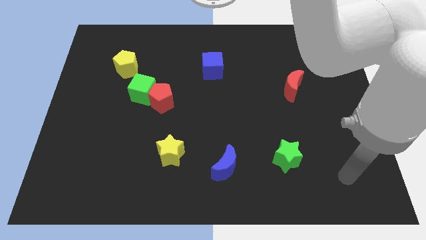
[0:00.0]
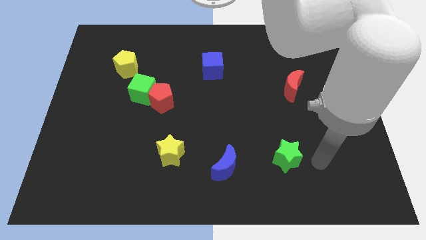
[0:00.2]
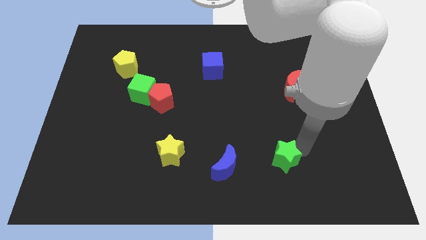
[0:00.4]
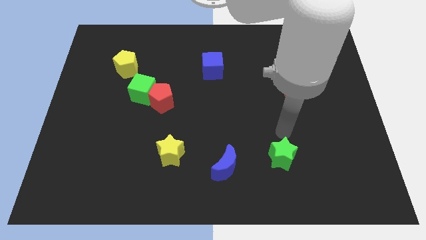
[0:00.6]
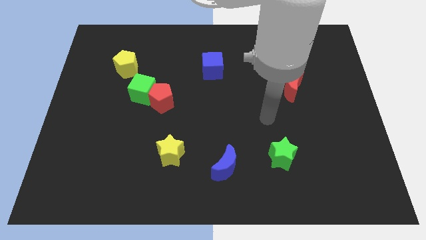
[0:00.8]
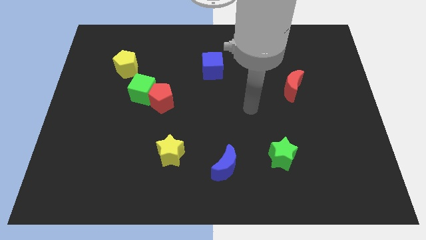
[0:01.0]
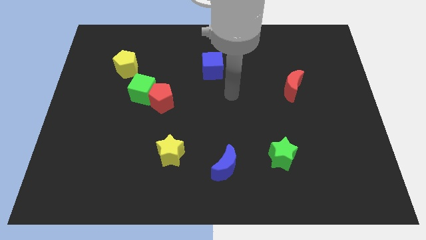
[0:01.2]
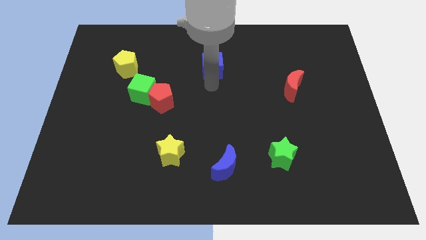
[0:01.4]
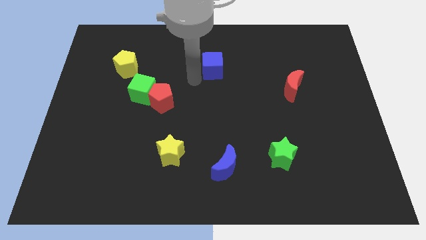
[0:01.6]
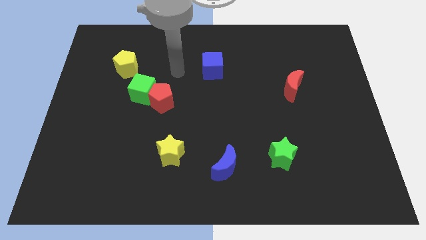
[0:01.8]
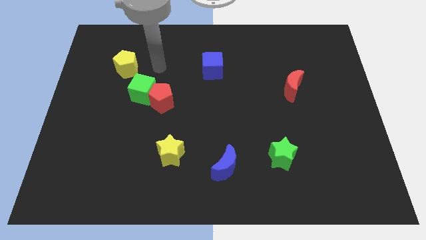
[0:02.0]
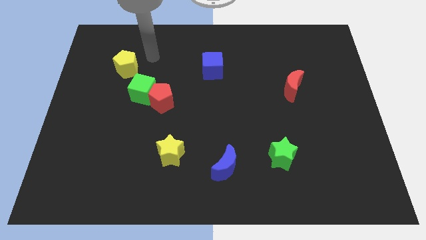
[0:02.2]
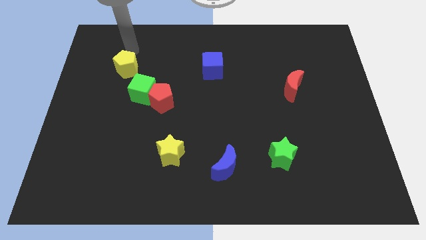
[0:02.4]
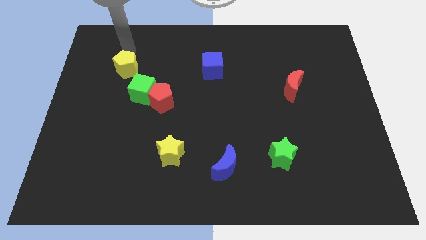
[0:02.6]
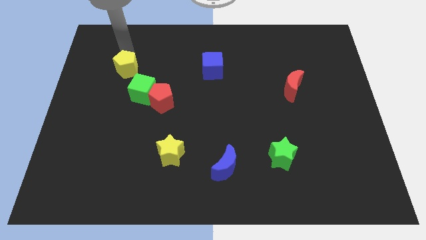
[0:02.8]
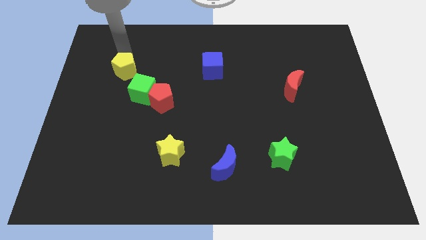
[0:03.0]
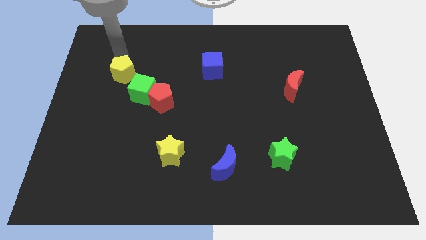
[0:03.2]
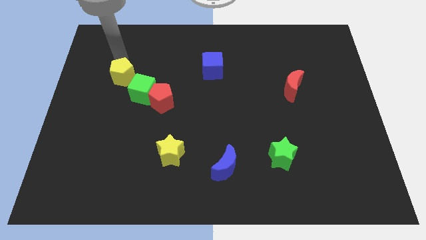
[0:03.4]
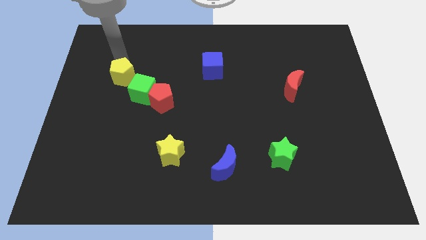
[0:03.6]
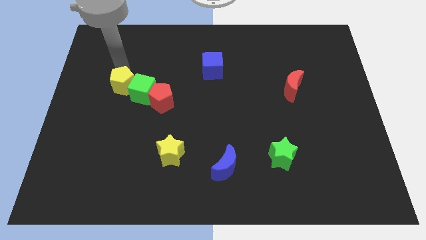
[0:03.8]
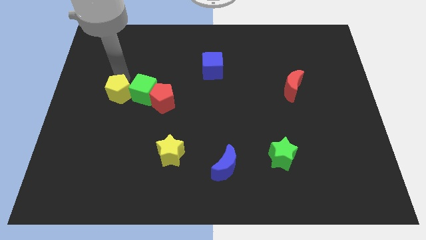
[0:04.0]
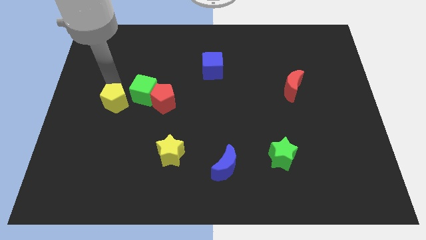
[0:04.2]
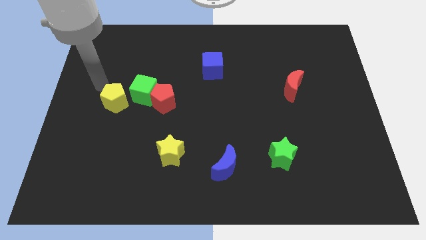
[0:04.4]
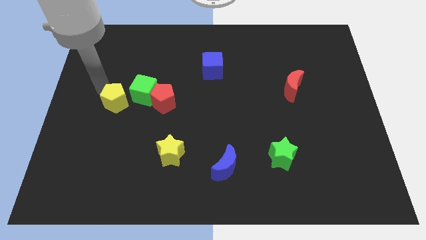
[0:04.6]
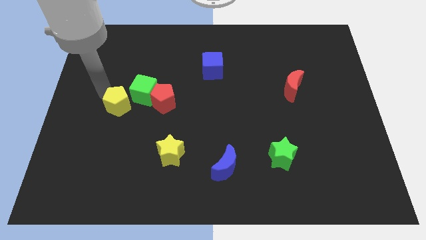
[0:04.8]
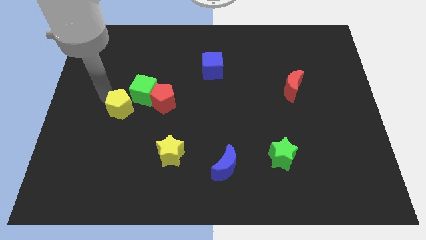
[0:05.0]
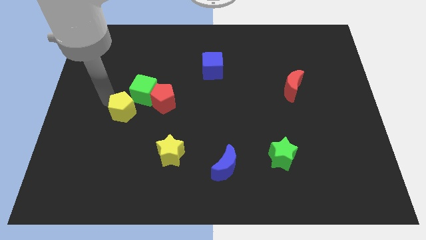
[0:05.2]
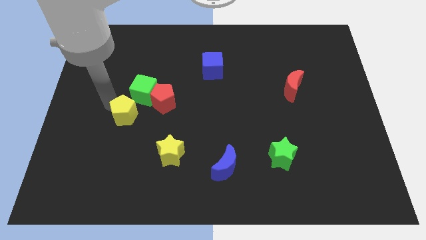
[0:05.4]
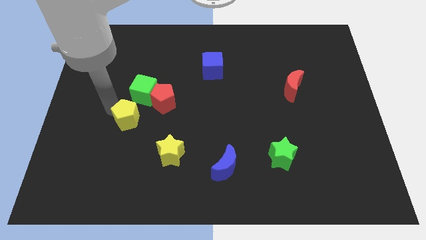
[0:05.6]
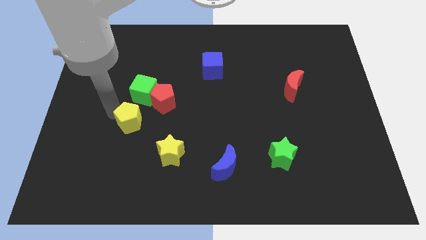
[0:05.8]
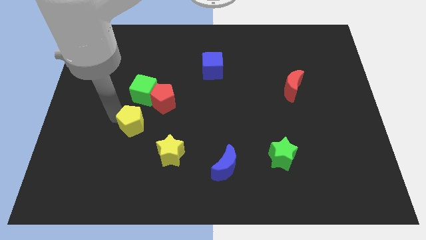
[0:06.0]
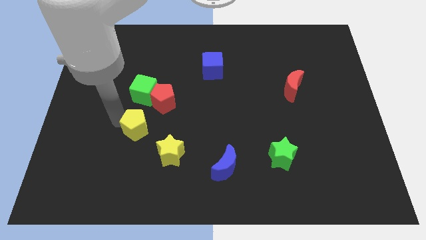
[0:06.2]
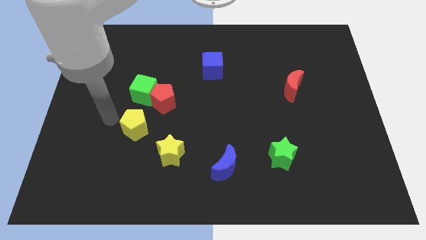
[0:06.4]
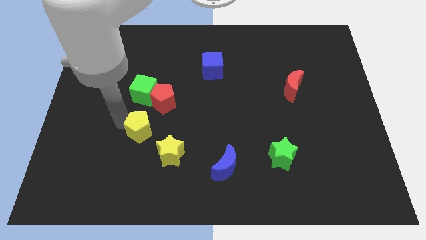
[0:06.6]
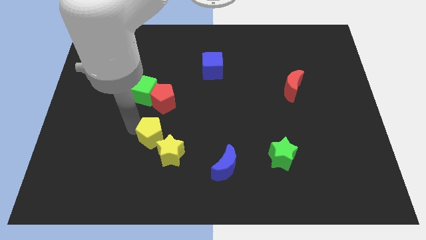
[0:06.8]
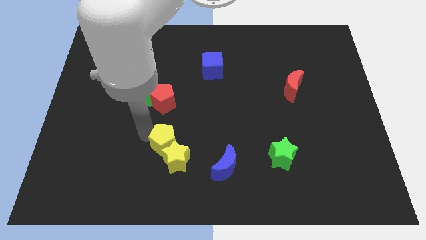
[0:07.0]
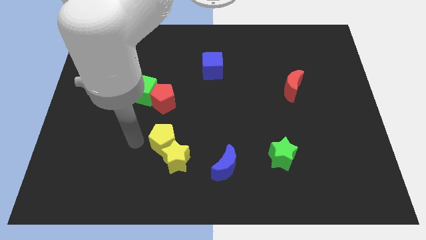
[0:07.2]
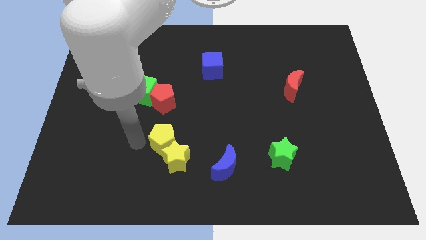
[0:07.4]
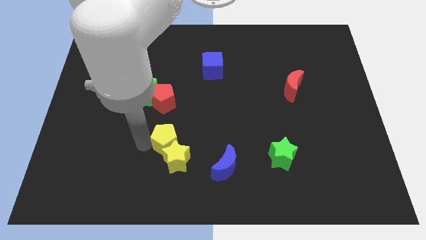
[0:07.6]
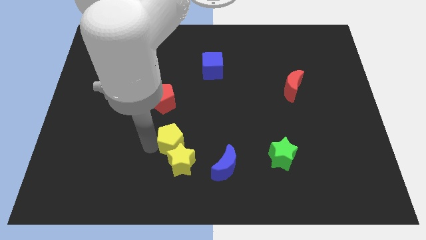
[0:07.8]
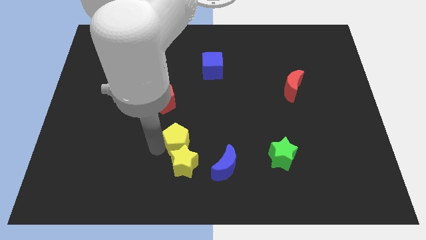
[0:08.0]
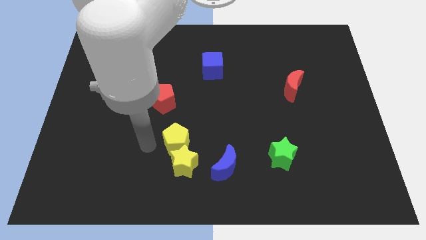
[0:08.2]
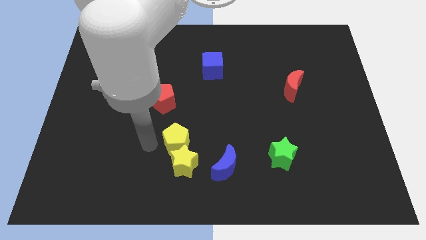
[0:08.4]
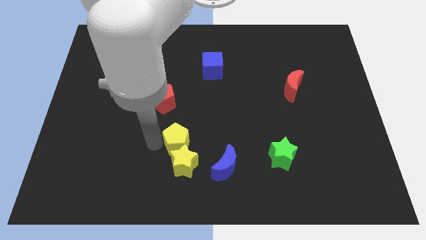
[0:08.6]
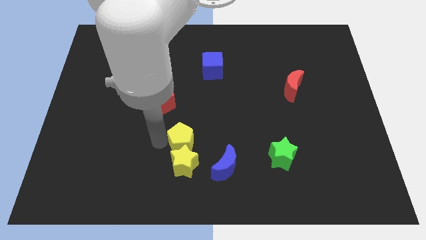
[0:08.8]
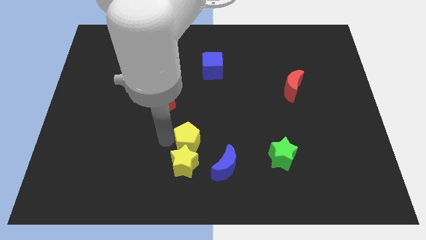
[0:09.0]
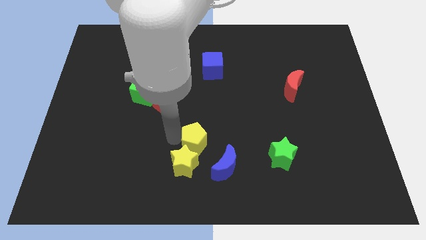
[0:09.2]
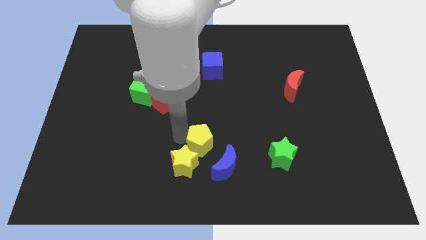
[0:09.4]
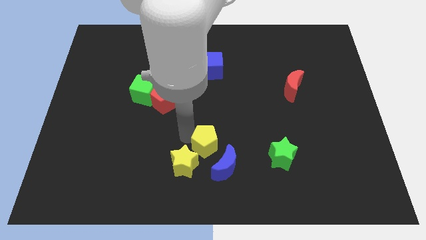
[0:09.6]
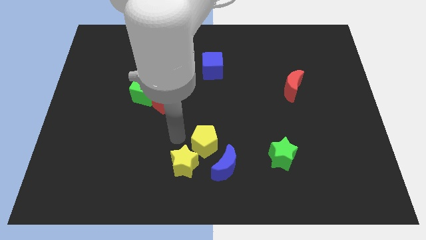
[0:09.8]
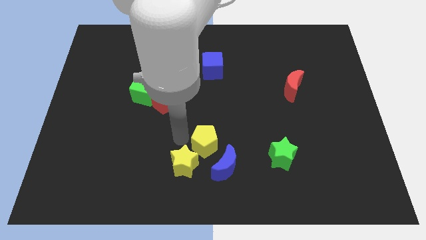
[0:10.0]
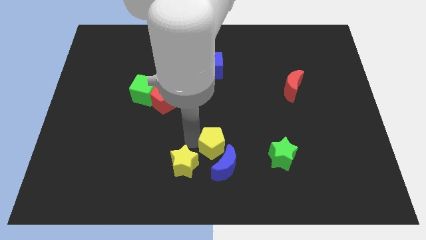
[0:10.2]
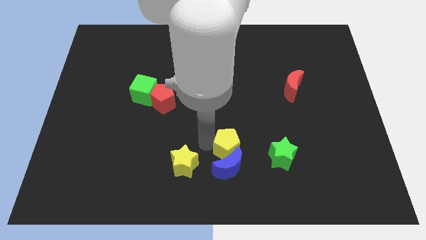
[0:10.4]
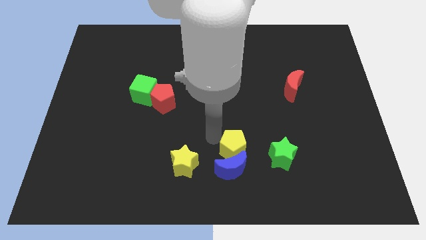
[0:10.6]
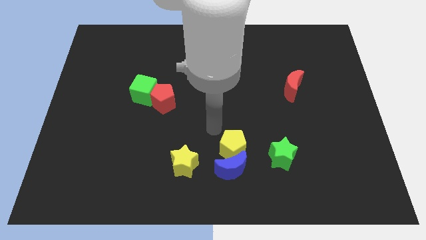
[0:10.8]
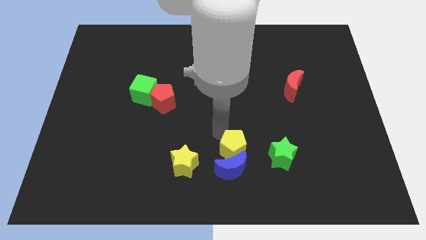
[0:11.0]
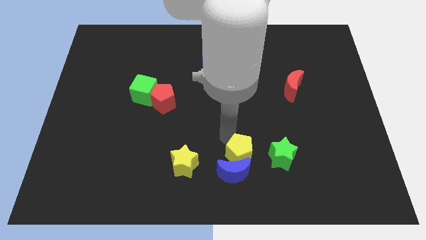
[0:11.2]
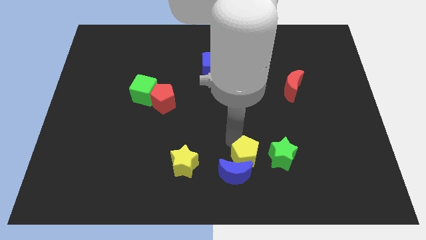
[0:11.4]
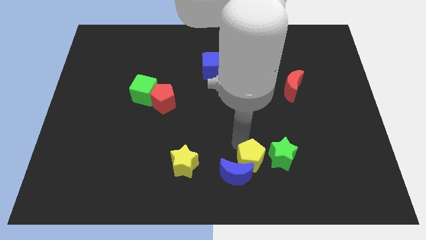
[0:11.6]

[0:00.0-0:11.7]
put the yellow pentagon diagonally down and to the left of the green star

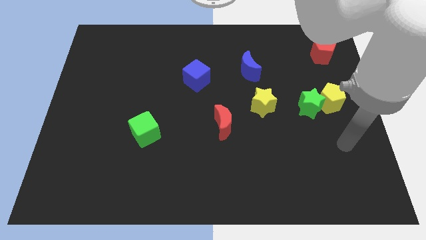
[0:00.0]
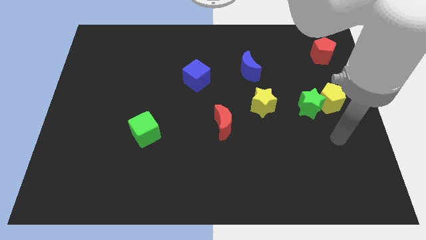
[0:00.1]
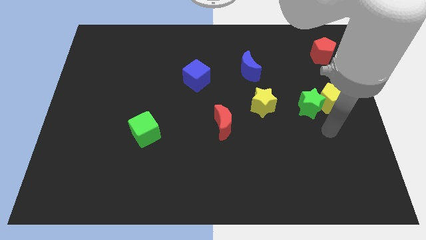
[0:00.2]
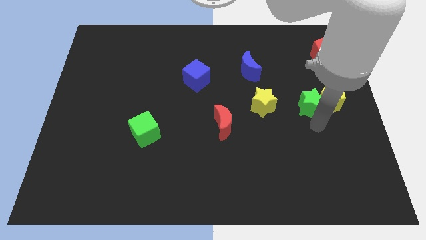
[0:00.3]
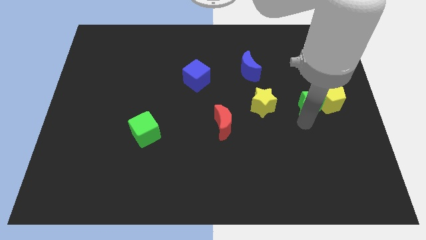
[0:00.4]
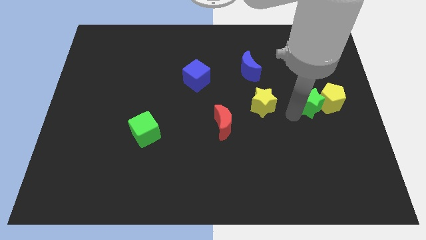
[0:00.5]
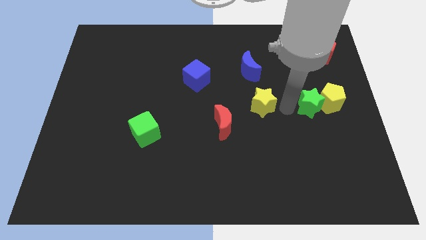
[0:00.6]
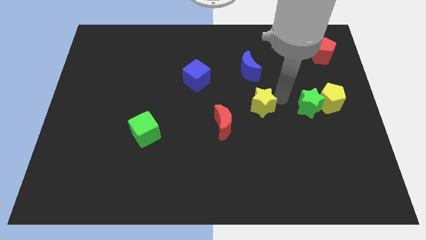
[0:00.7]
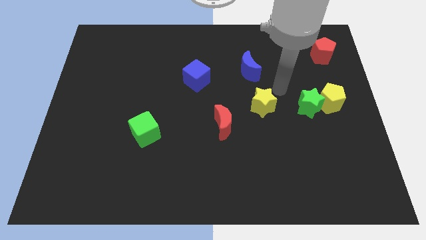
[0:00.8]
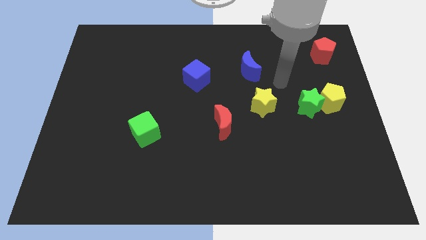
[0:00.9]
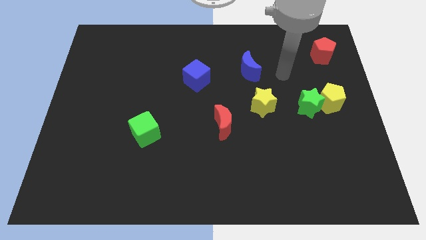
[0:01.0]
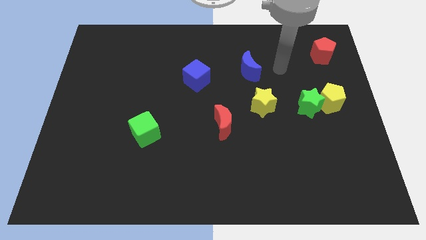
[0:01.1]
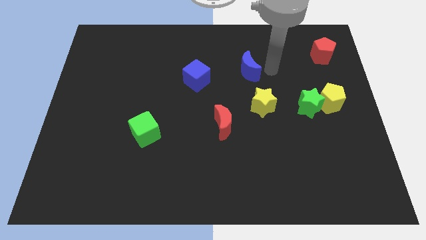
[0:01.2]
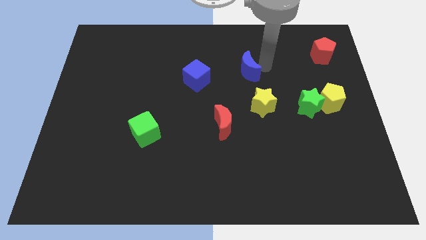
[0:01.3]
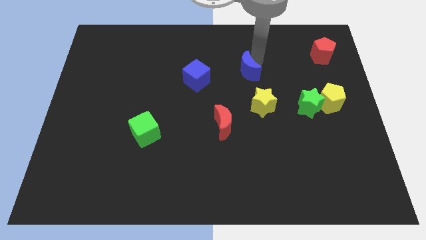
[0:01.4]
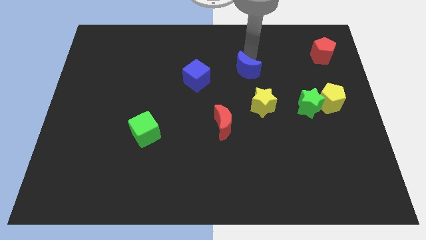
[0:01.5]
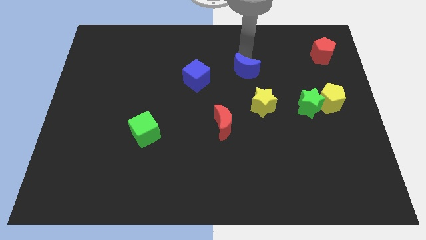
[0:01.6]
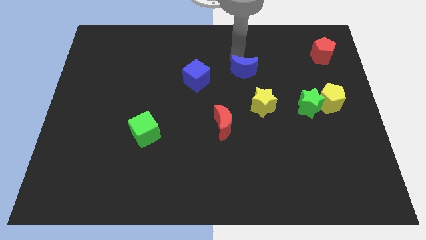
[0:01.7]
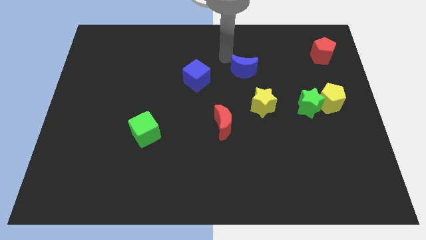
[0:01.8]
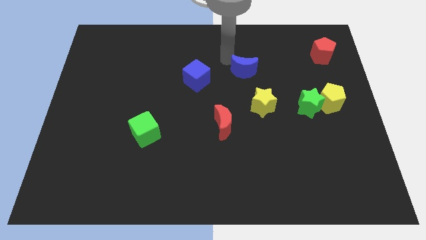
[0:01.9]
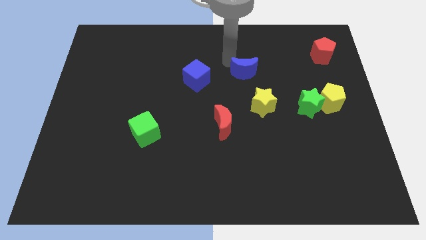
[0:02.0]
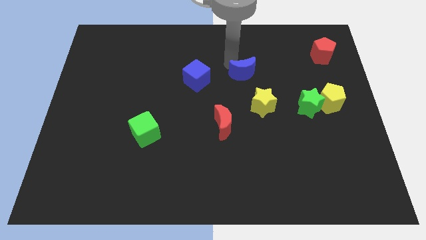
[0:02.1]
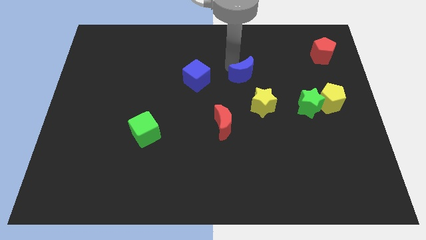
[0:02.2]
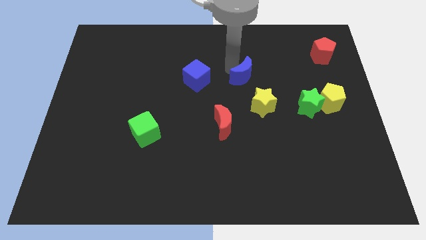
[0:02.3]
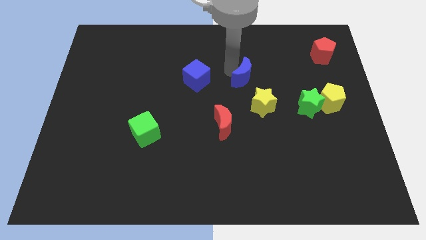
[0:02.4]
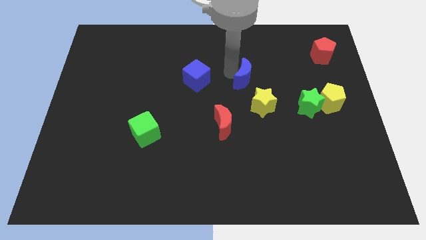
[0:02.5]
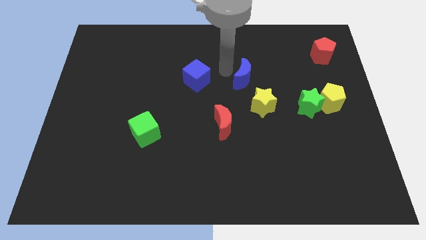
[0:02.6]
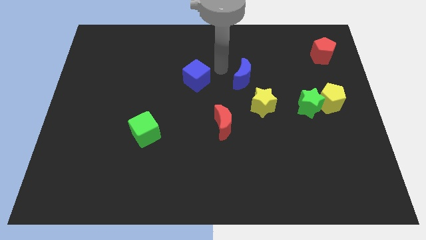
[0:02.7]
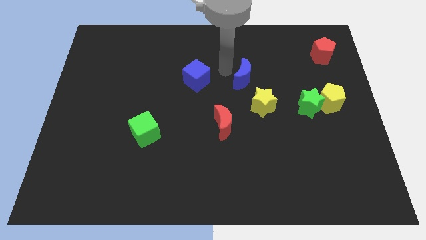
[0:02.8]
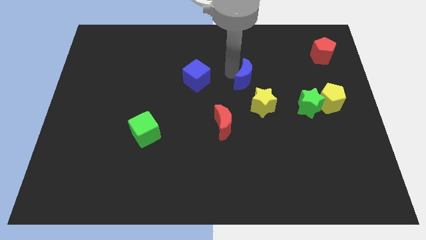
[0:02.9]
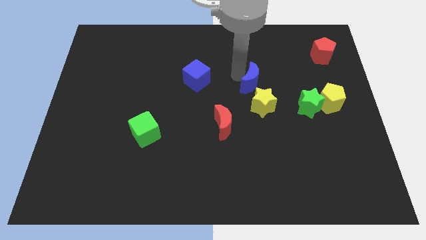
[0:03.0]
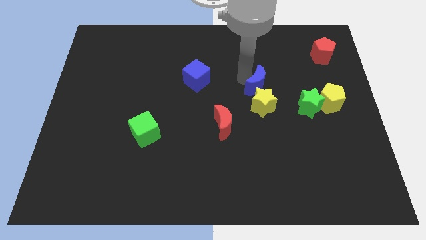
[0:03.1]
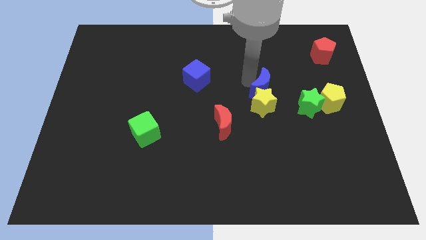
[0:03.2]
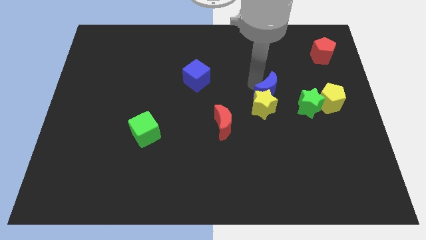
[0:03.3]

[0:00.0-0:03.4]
move the blue moon left of the yellow pentagon
